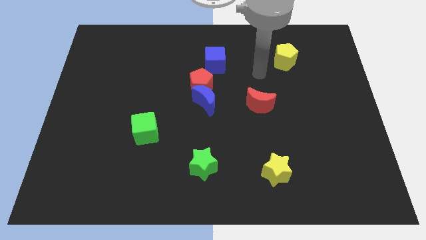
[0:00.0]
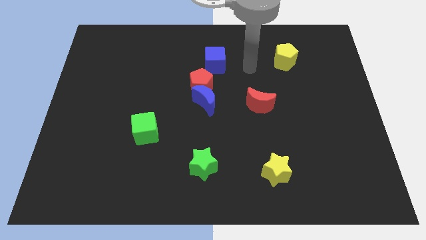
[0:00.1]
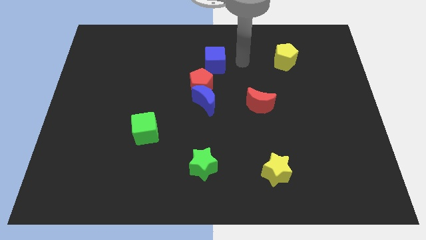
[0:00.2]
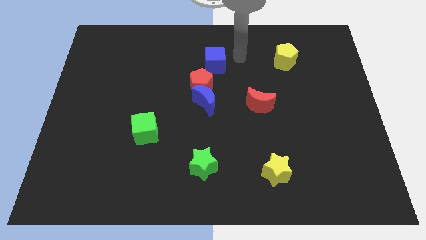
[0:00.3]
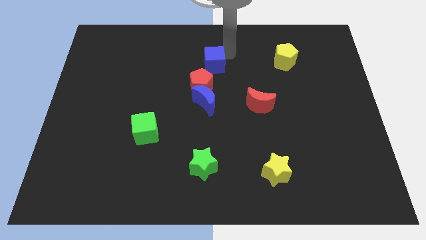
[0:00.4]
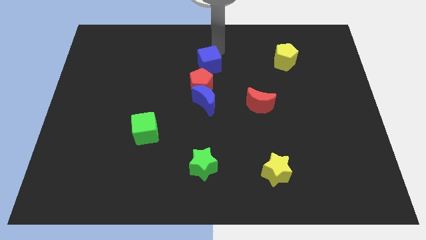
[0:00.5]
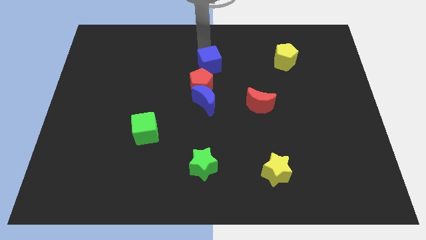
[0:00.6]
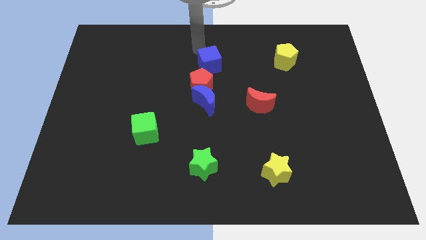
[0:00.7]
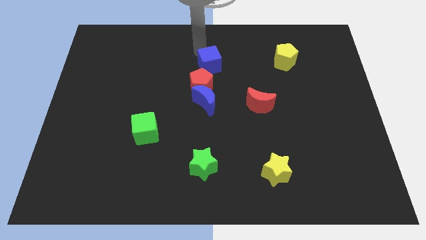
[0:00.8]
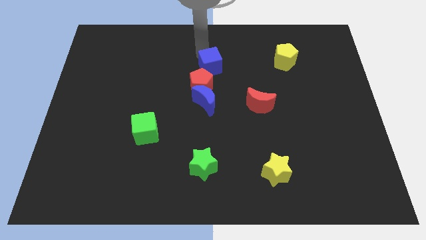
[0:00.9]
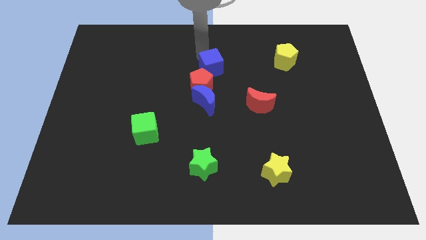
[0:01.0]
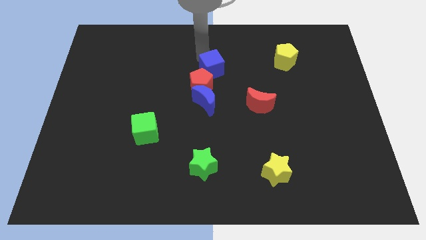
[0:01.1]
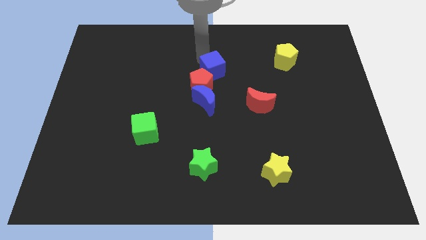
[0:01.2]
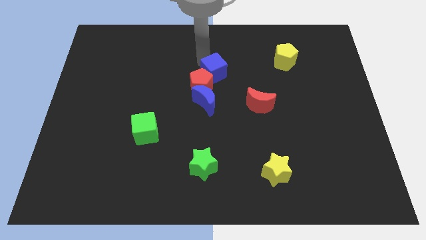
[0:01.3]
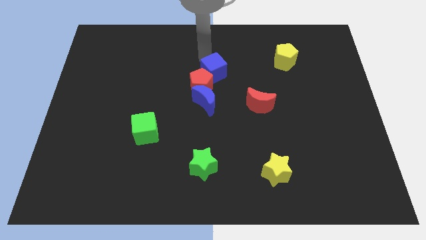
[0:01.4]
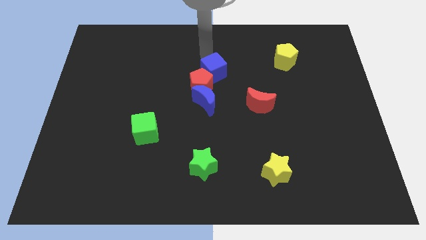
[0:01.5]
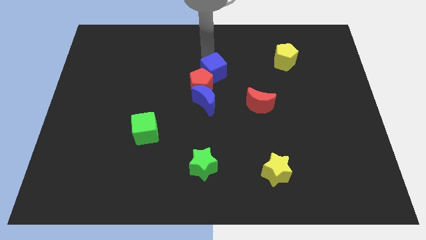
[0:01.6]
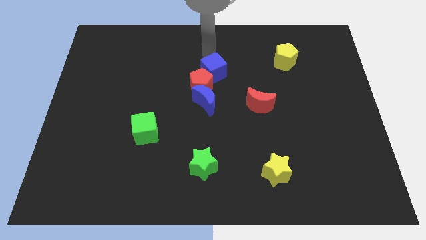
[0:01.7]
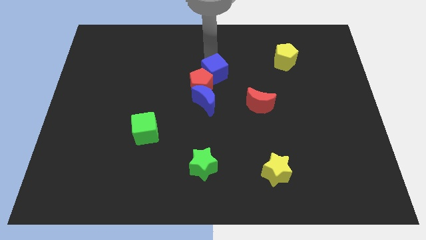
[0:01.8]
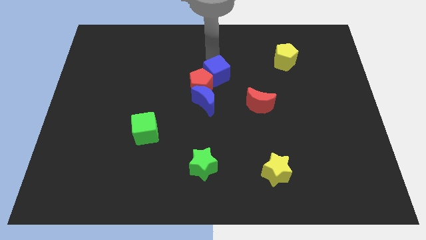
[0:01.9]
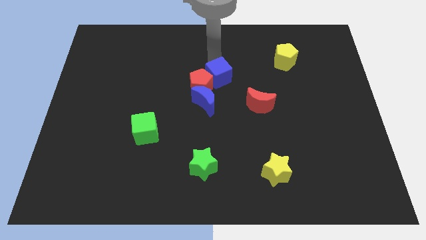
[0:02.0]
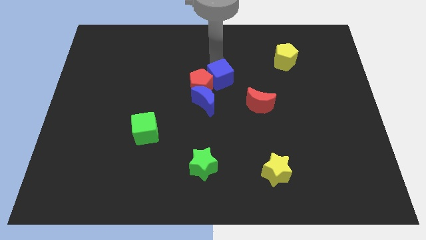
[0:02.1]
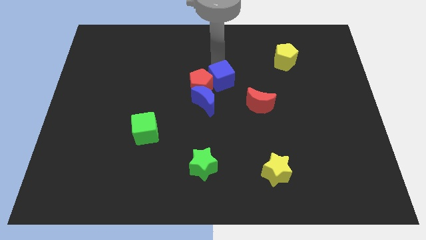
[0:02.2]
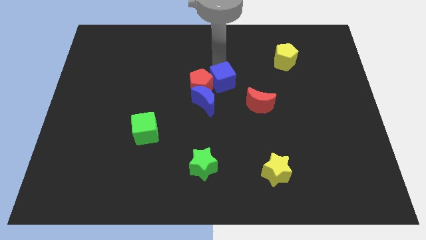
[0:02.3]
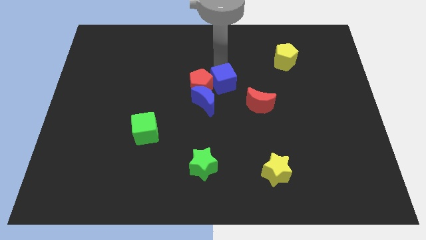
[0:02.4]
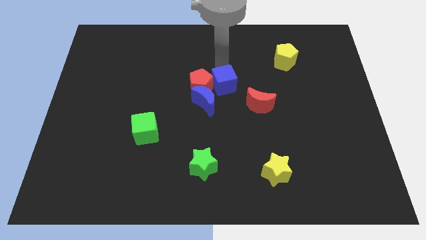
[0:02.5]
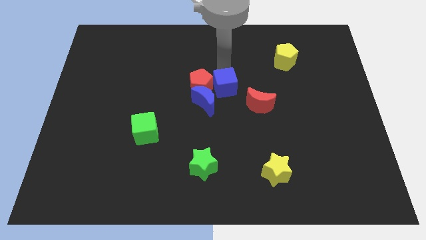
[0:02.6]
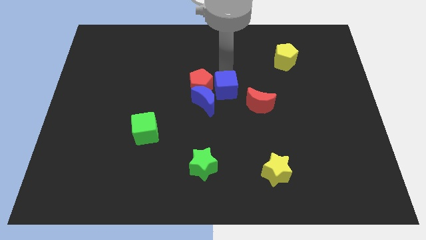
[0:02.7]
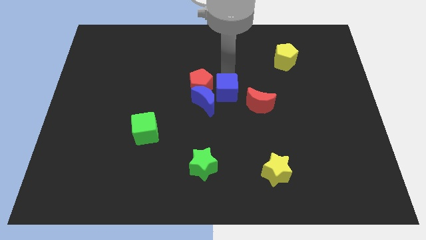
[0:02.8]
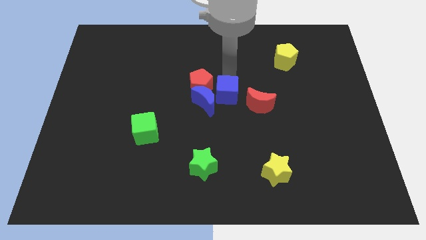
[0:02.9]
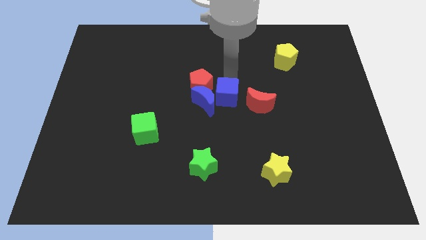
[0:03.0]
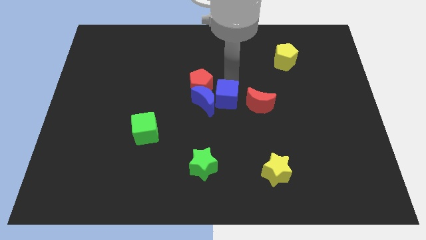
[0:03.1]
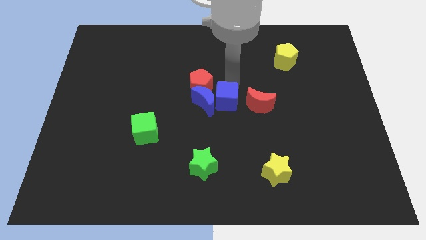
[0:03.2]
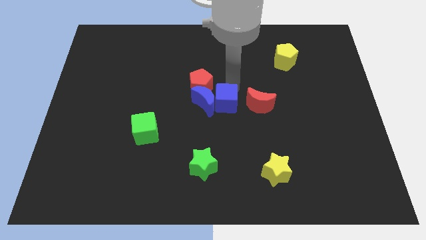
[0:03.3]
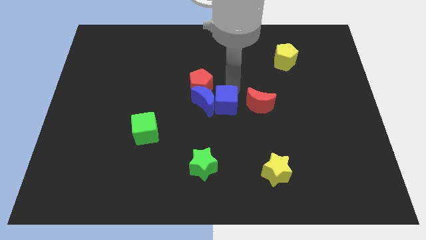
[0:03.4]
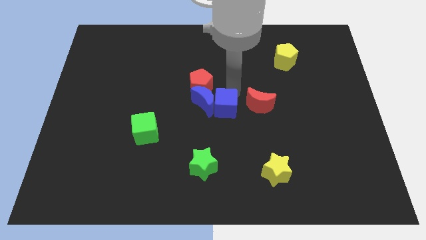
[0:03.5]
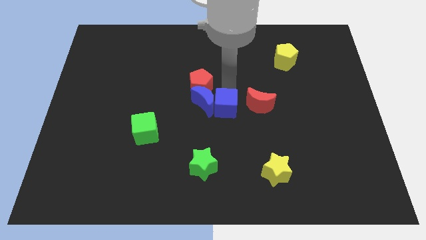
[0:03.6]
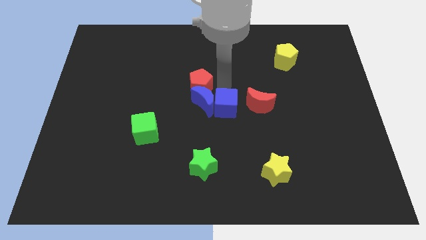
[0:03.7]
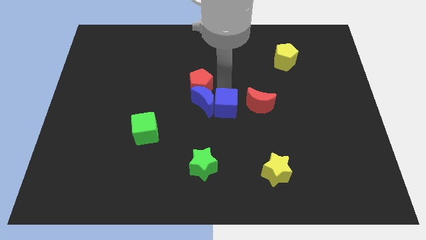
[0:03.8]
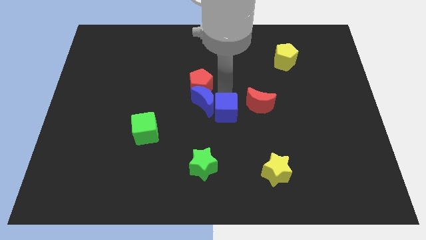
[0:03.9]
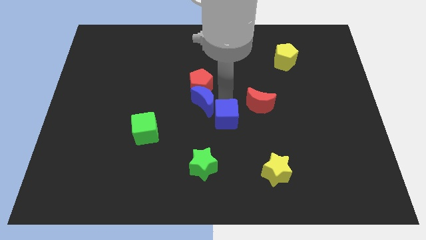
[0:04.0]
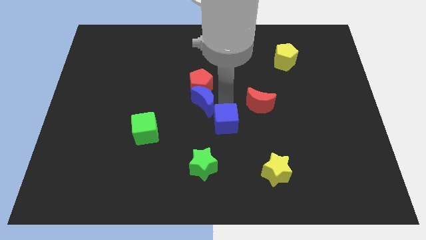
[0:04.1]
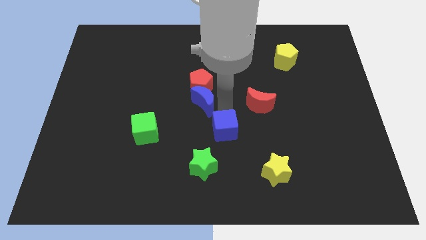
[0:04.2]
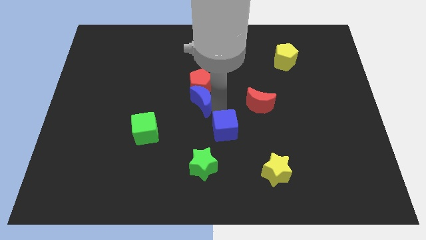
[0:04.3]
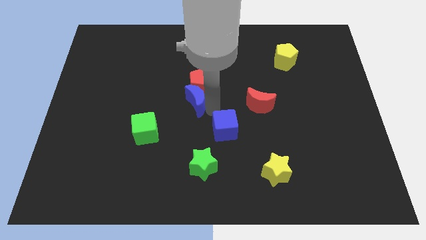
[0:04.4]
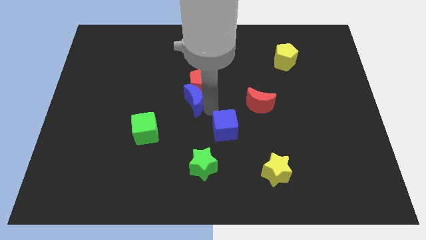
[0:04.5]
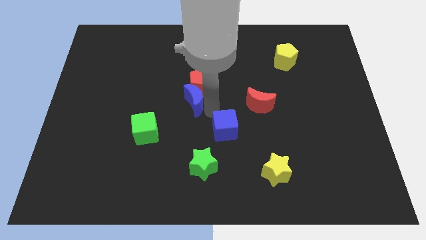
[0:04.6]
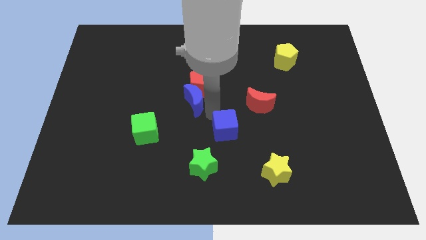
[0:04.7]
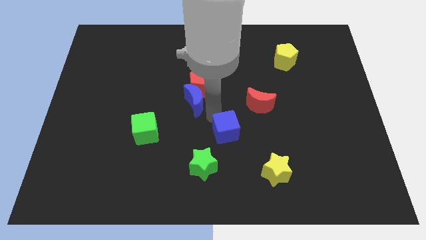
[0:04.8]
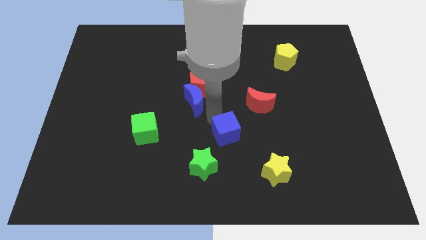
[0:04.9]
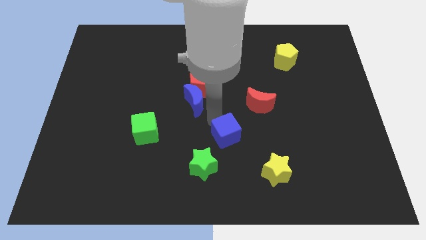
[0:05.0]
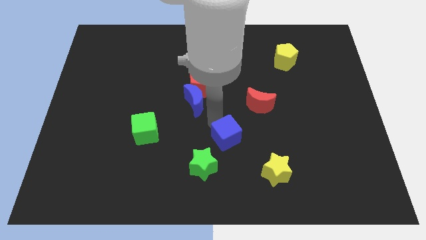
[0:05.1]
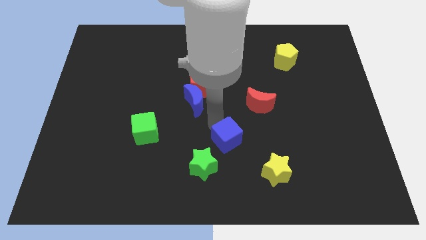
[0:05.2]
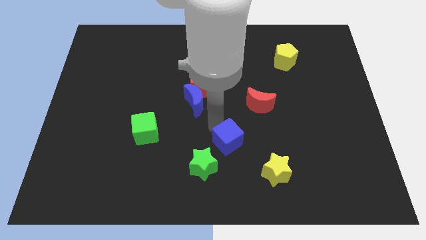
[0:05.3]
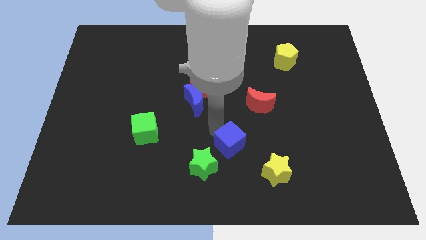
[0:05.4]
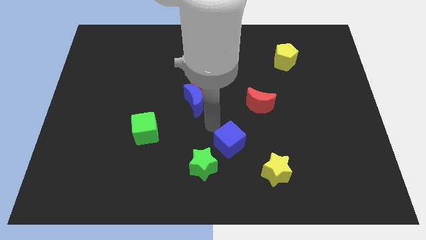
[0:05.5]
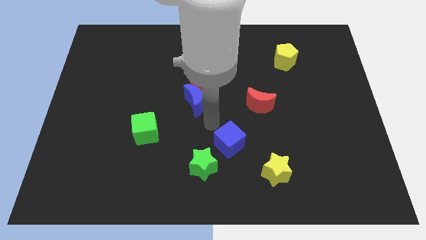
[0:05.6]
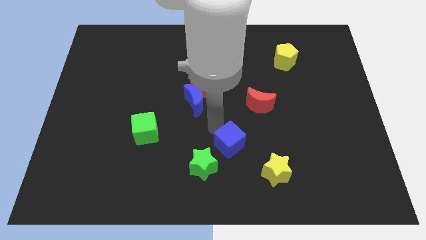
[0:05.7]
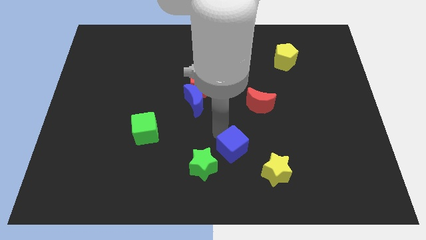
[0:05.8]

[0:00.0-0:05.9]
push the blue cube right of the green star

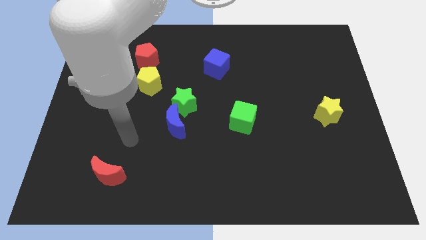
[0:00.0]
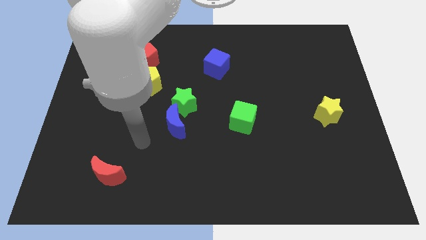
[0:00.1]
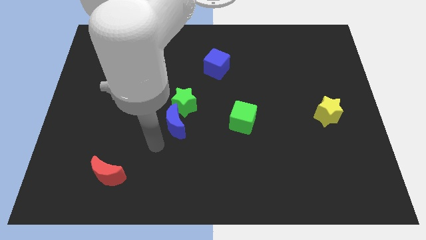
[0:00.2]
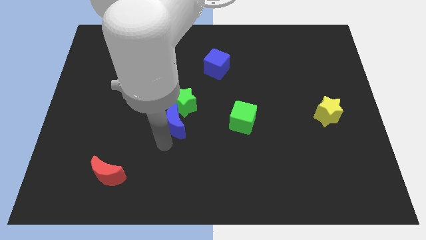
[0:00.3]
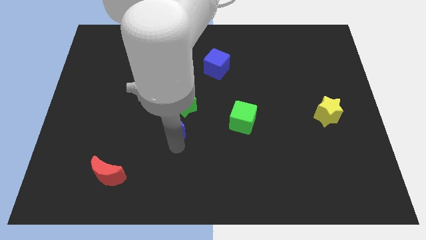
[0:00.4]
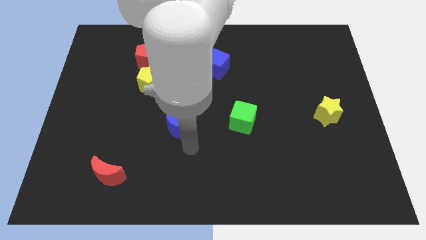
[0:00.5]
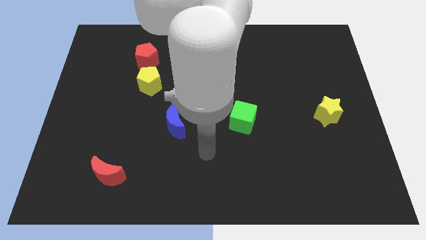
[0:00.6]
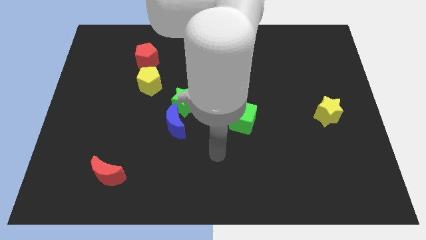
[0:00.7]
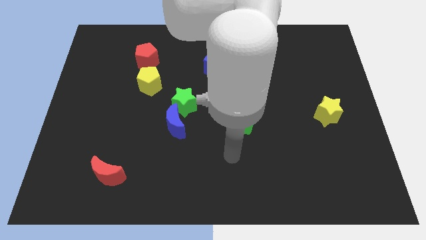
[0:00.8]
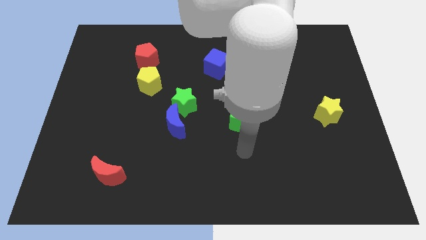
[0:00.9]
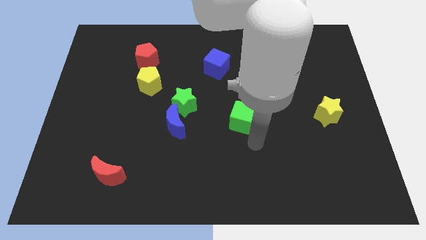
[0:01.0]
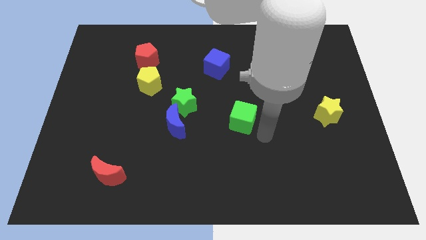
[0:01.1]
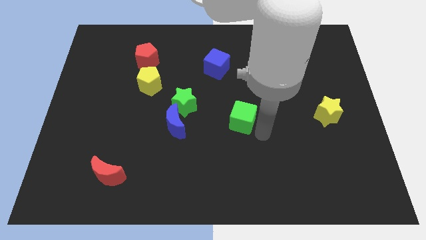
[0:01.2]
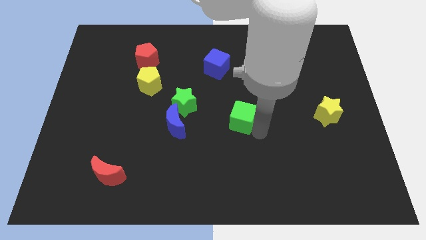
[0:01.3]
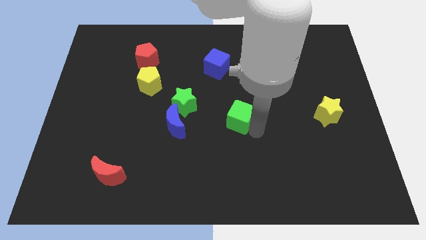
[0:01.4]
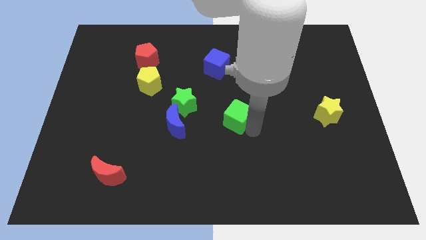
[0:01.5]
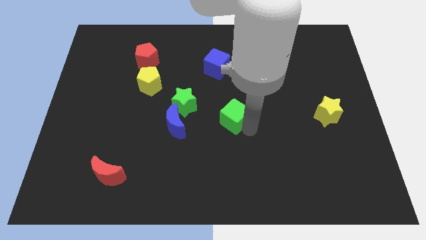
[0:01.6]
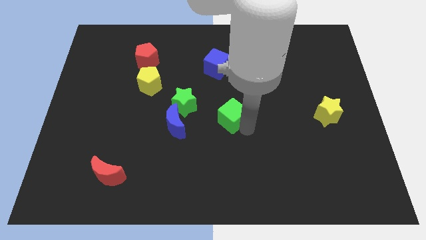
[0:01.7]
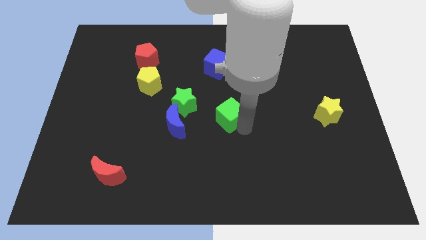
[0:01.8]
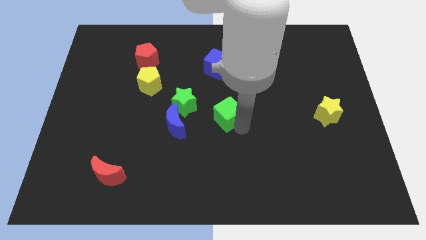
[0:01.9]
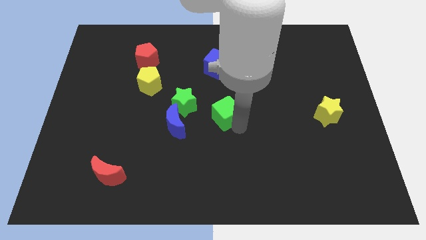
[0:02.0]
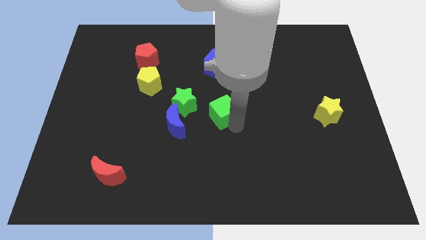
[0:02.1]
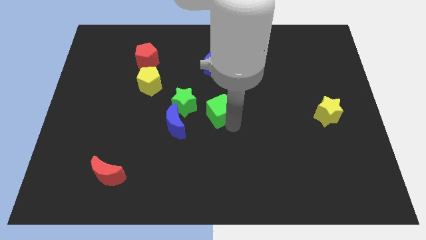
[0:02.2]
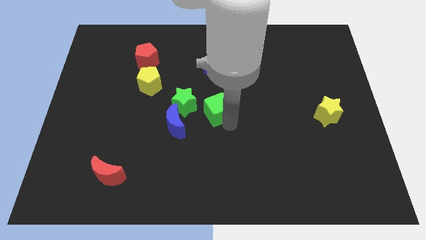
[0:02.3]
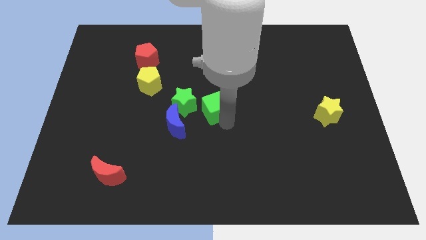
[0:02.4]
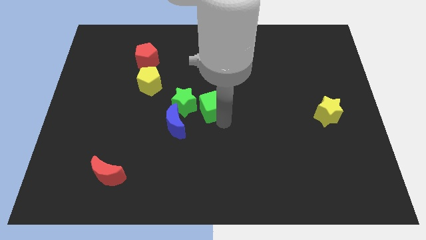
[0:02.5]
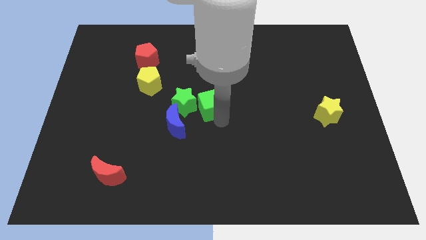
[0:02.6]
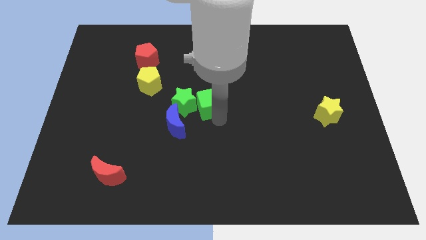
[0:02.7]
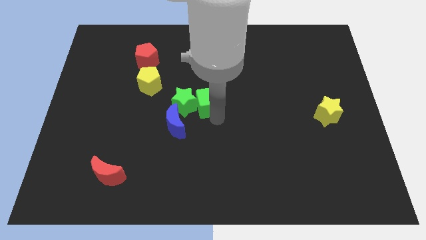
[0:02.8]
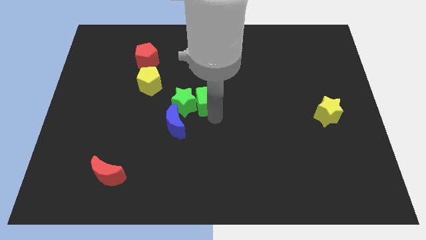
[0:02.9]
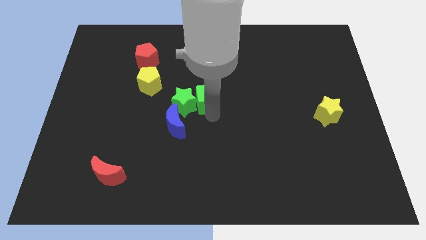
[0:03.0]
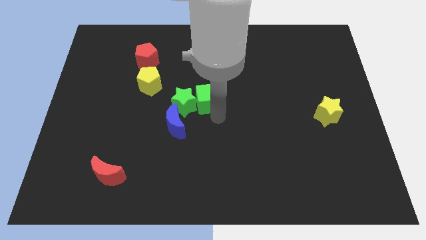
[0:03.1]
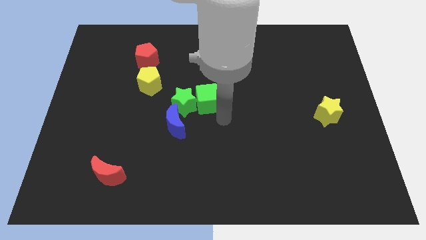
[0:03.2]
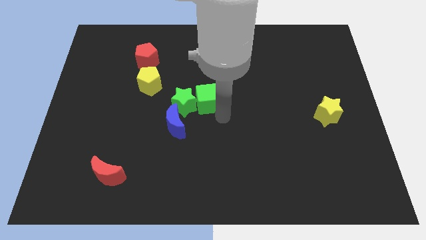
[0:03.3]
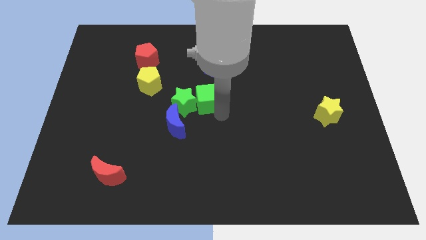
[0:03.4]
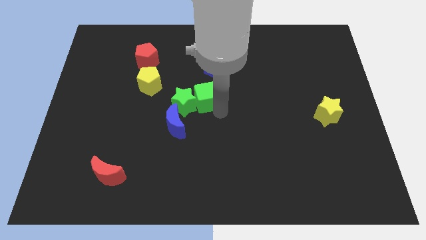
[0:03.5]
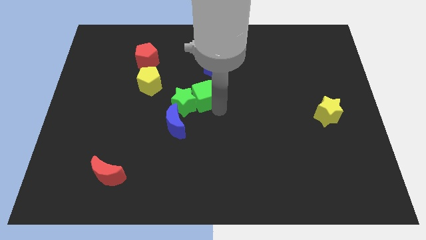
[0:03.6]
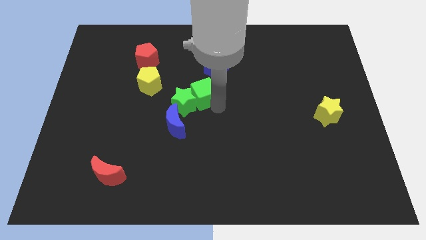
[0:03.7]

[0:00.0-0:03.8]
put the green cube just right of the yellow pentagon
